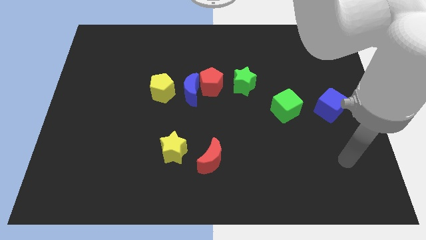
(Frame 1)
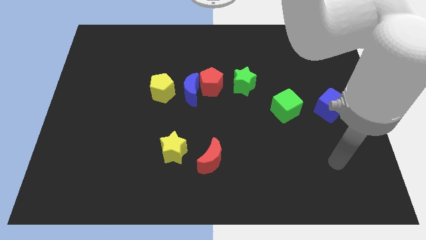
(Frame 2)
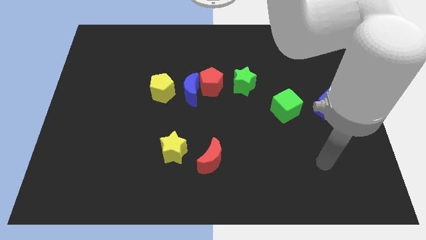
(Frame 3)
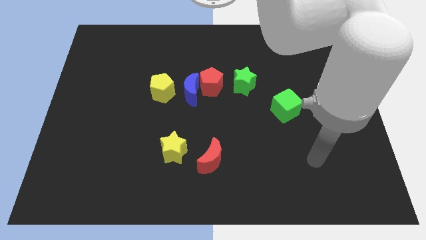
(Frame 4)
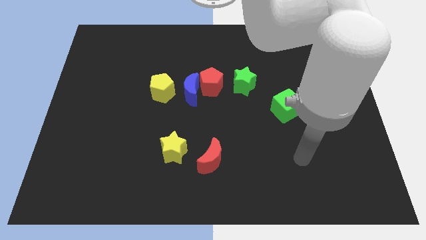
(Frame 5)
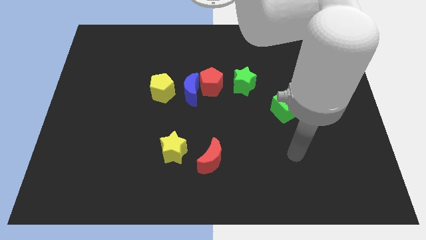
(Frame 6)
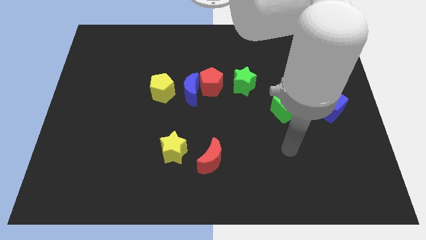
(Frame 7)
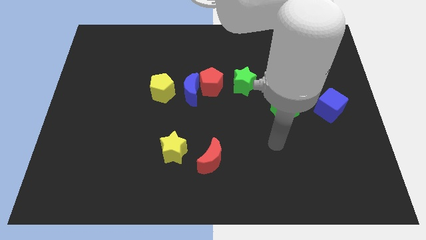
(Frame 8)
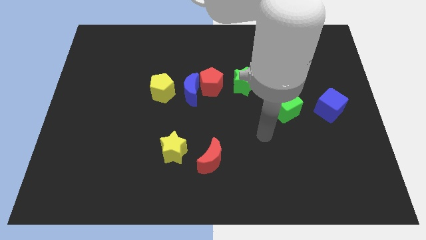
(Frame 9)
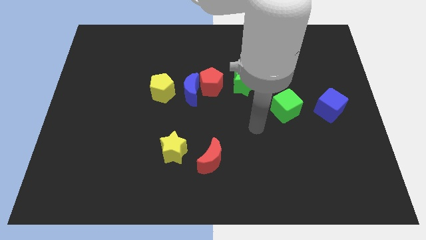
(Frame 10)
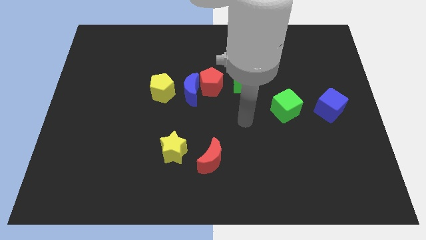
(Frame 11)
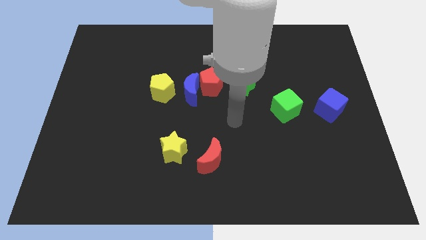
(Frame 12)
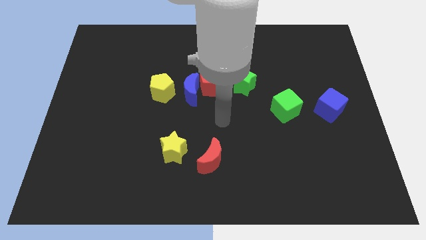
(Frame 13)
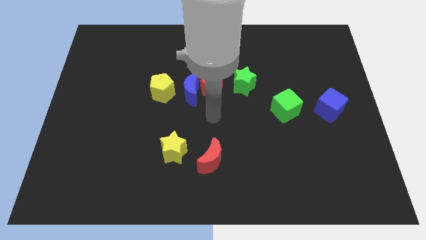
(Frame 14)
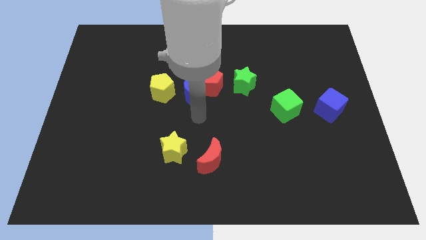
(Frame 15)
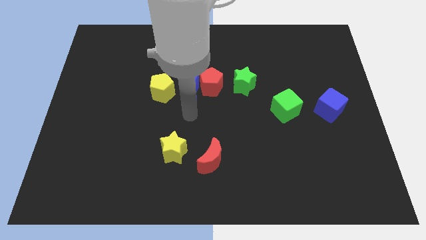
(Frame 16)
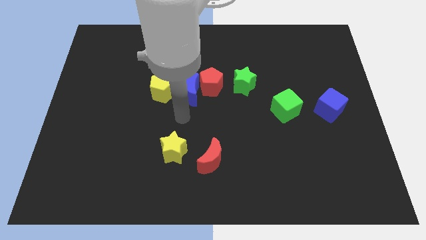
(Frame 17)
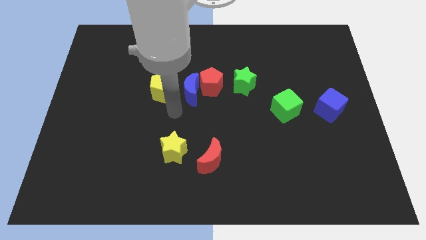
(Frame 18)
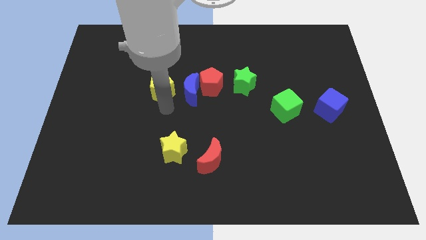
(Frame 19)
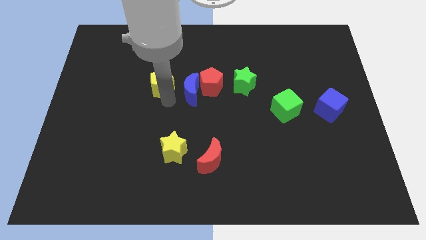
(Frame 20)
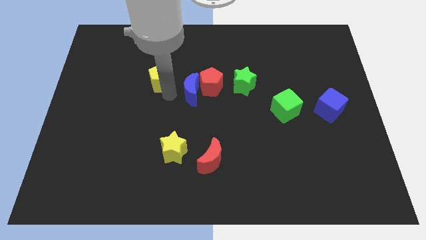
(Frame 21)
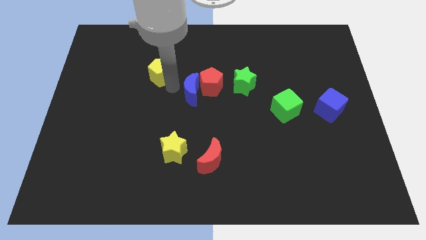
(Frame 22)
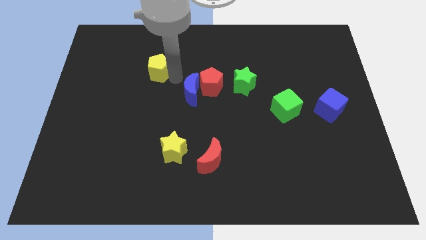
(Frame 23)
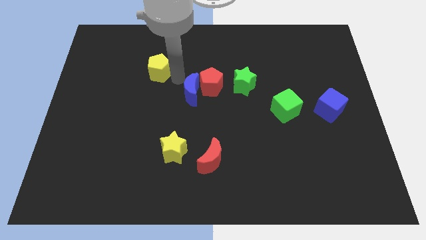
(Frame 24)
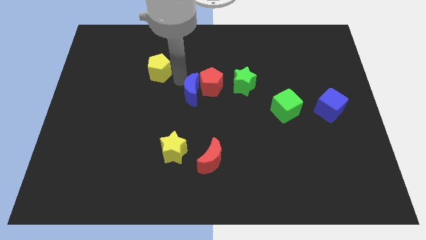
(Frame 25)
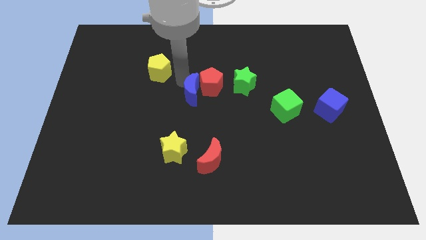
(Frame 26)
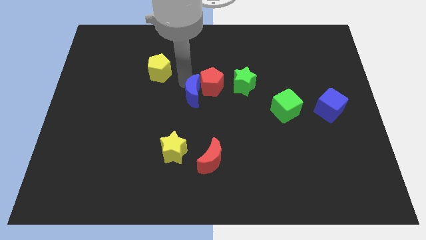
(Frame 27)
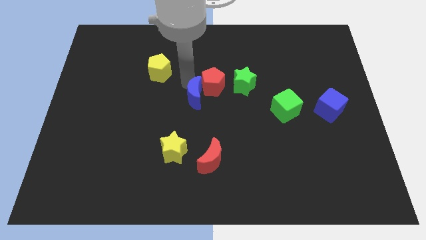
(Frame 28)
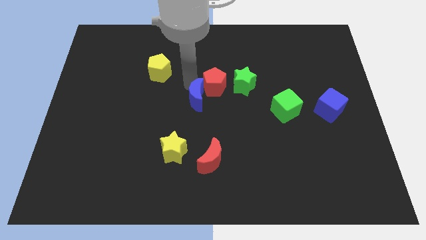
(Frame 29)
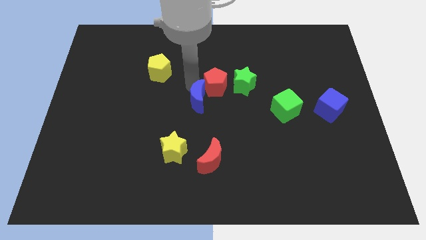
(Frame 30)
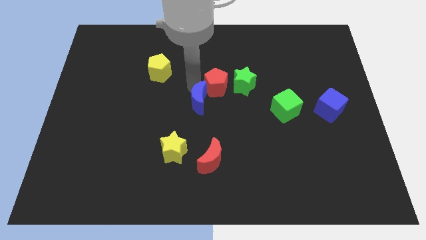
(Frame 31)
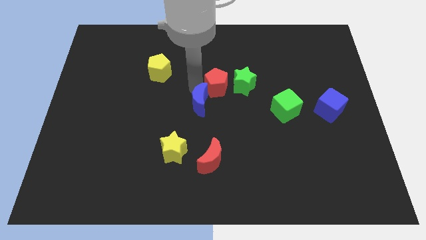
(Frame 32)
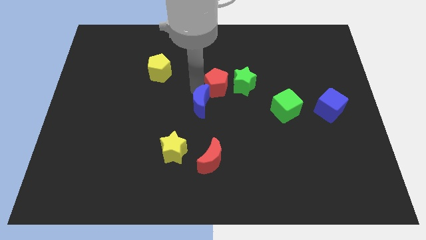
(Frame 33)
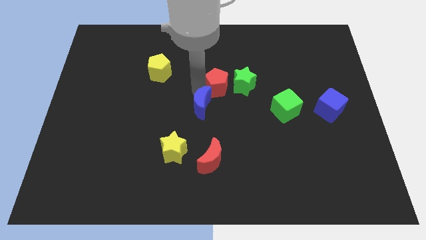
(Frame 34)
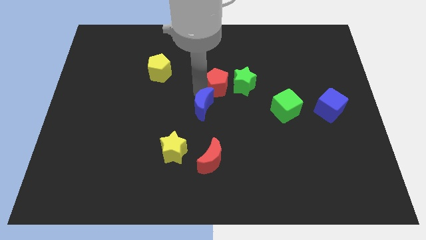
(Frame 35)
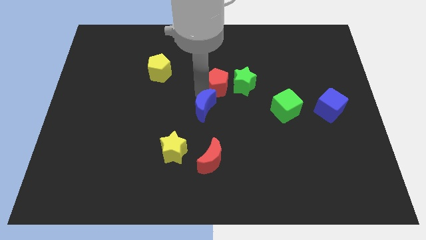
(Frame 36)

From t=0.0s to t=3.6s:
pull the blue moon apart from the red pentagon and yellow pentagon

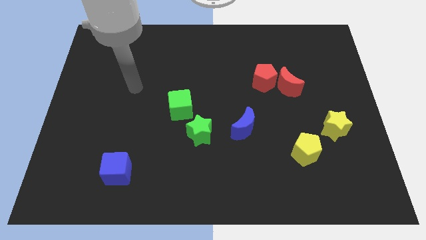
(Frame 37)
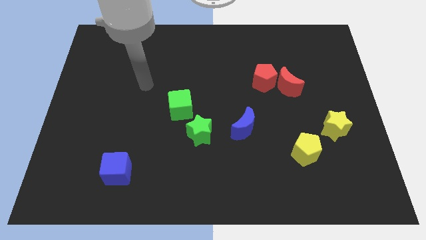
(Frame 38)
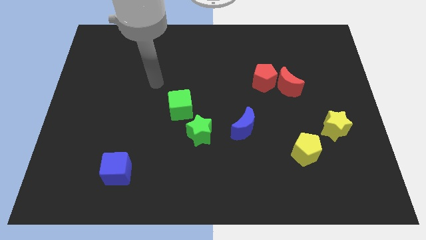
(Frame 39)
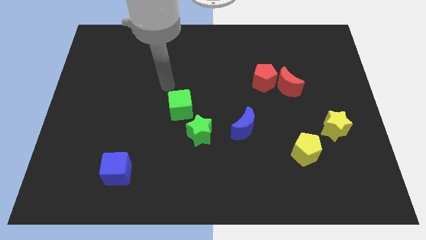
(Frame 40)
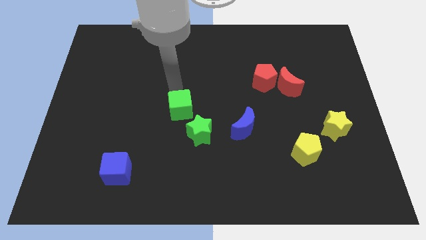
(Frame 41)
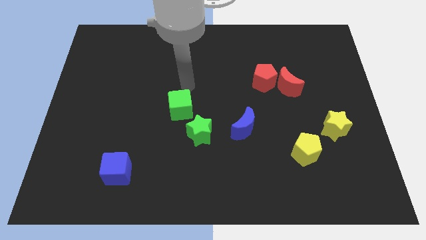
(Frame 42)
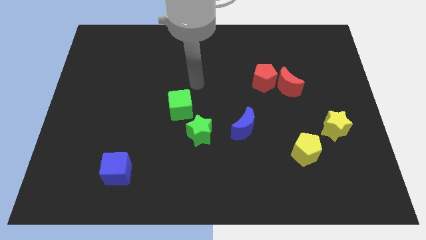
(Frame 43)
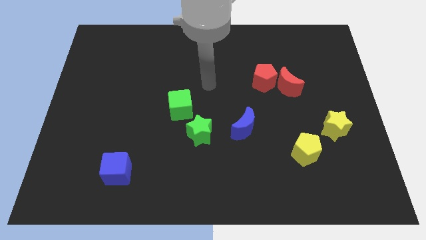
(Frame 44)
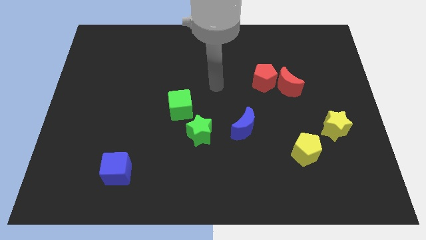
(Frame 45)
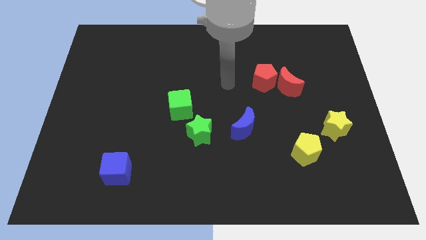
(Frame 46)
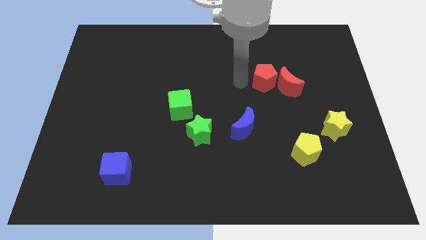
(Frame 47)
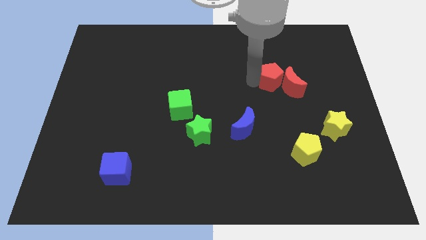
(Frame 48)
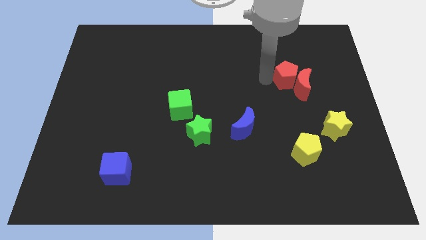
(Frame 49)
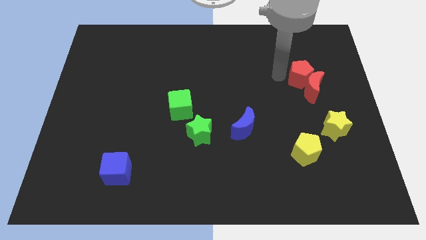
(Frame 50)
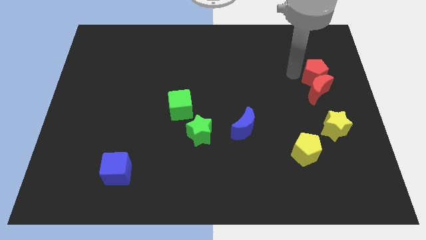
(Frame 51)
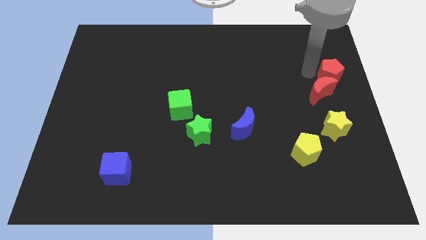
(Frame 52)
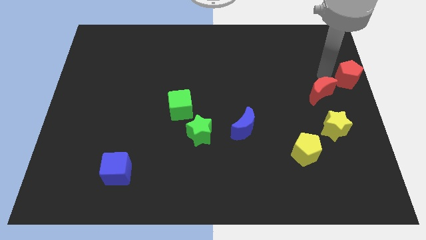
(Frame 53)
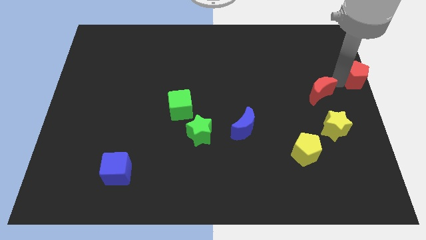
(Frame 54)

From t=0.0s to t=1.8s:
move the red moon away from the red pentagon

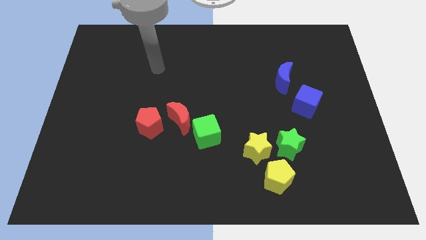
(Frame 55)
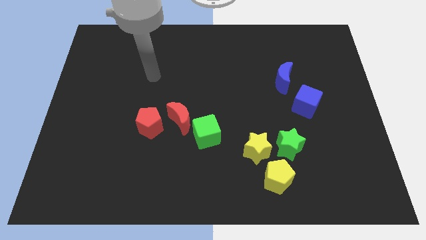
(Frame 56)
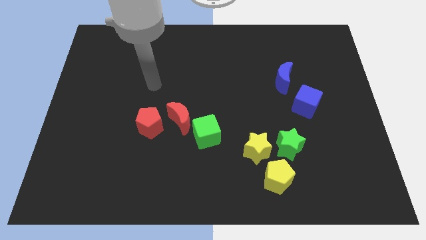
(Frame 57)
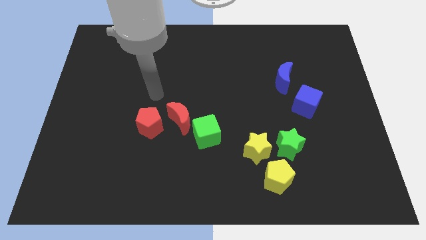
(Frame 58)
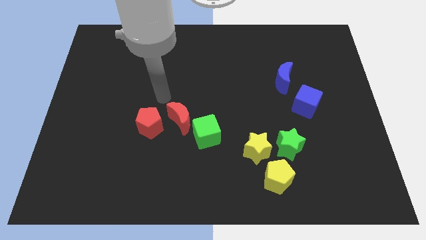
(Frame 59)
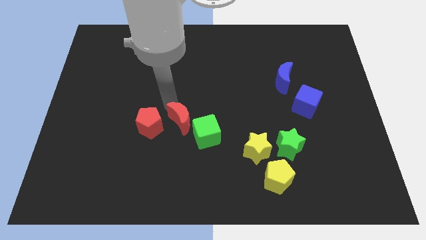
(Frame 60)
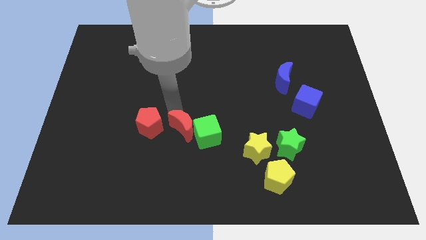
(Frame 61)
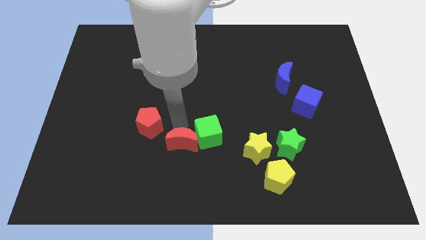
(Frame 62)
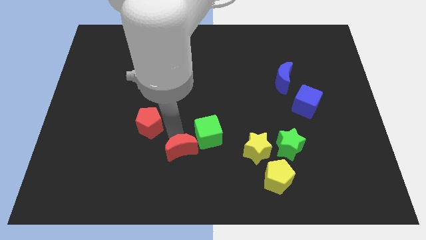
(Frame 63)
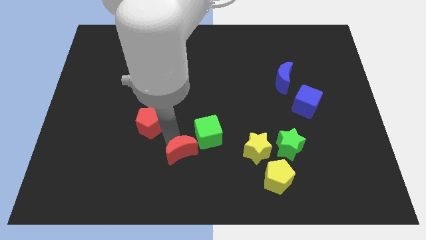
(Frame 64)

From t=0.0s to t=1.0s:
pull the red pentagon apart from the red moon

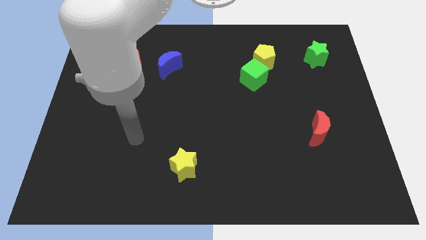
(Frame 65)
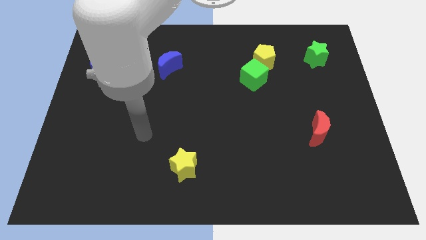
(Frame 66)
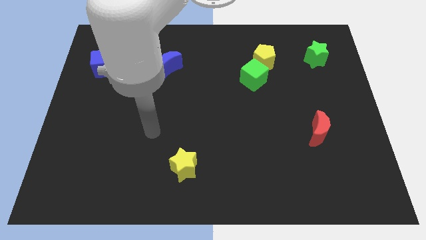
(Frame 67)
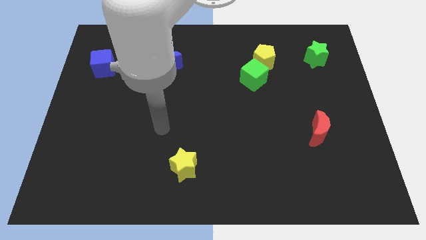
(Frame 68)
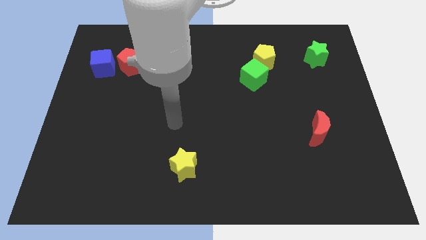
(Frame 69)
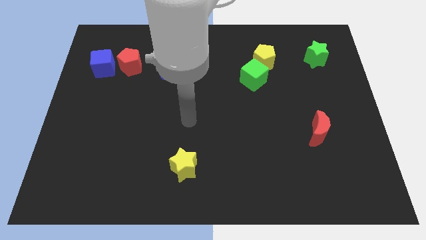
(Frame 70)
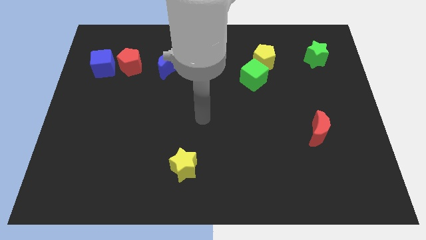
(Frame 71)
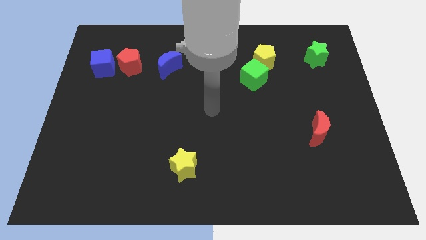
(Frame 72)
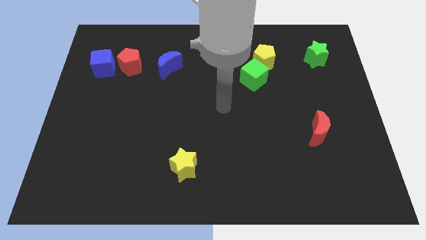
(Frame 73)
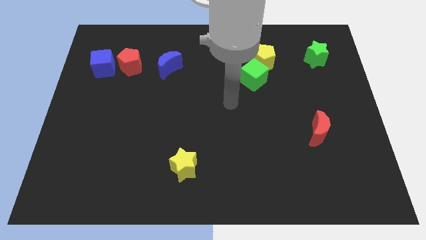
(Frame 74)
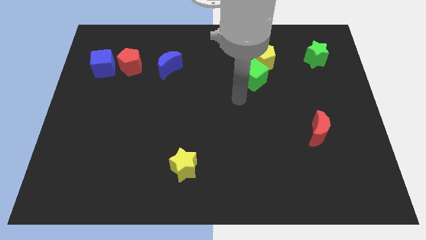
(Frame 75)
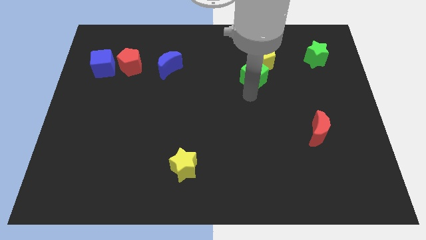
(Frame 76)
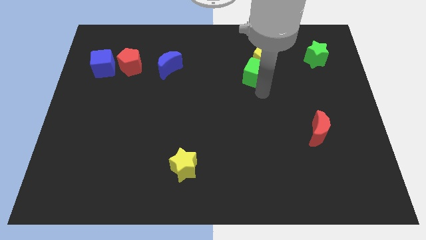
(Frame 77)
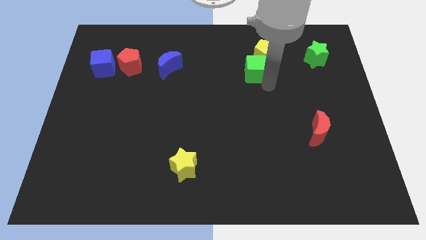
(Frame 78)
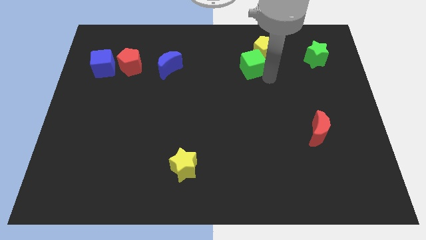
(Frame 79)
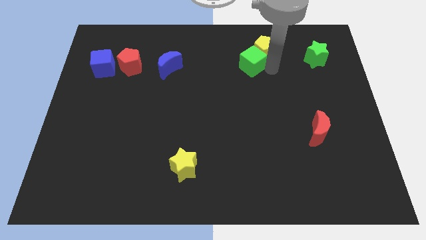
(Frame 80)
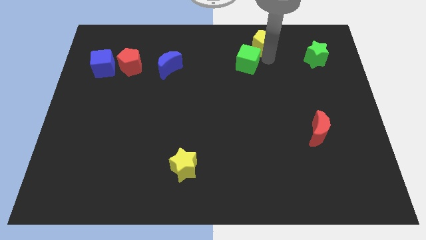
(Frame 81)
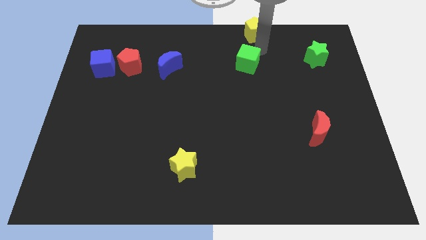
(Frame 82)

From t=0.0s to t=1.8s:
pull the green cube apart from the yellow pentagon

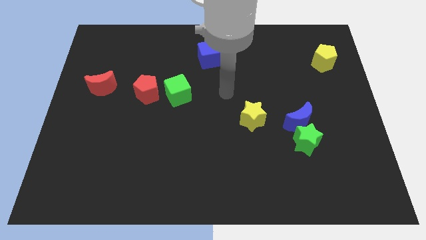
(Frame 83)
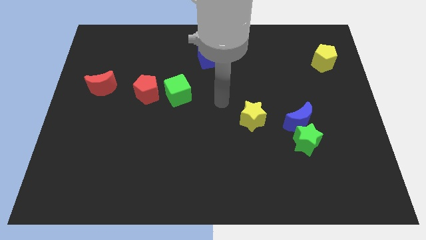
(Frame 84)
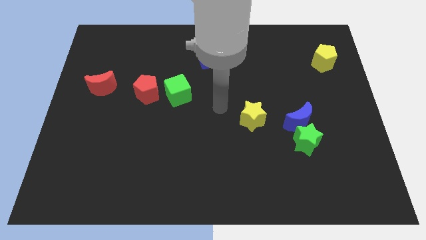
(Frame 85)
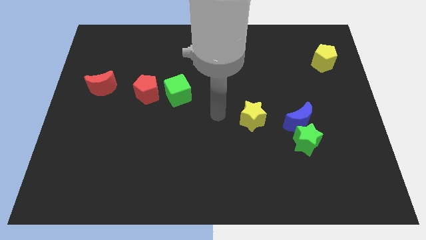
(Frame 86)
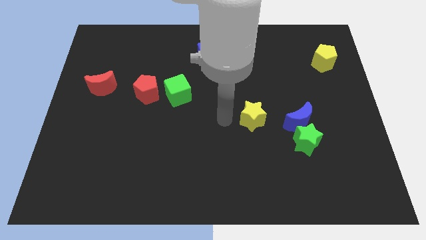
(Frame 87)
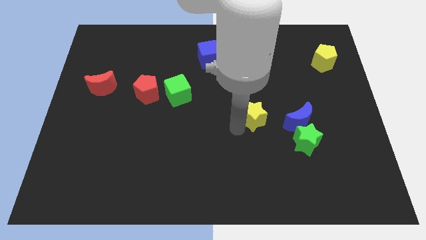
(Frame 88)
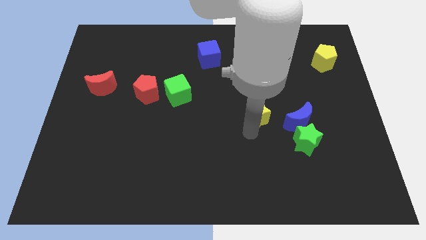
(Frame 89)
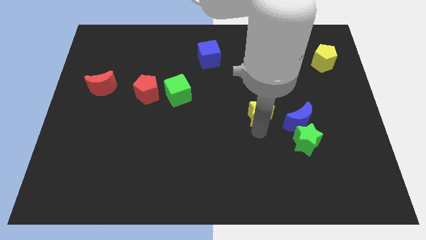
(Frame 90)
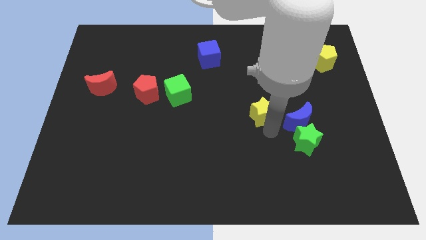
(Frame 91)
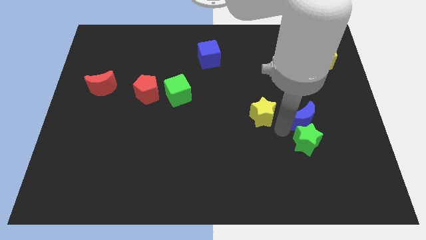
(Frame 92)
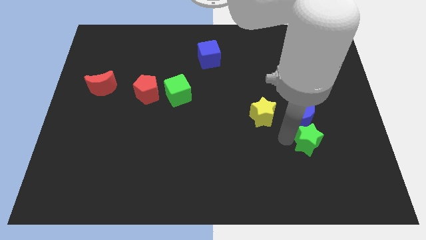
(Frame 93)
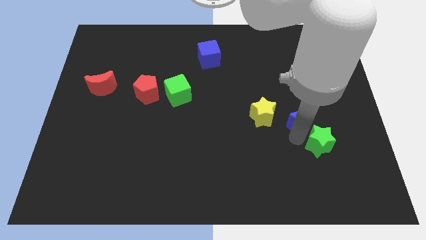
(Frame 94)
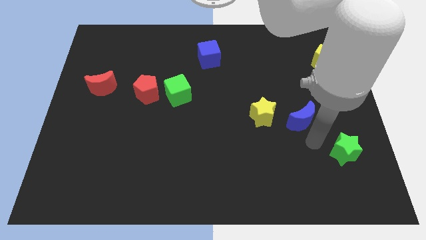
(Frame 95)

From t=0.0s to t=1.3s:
move the blue moon away from the green star
